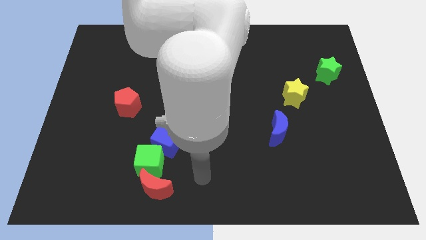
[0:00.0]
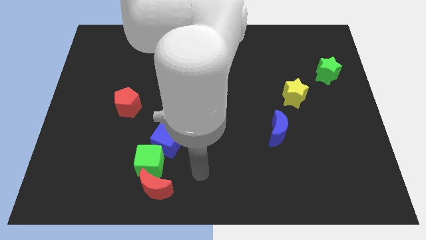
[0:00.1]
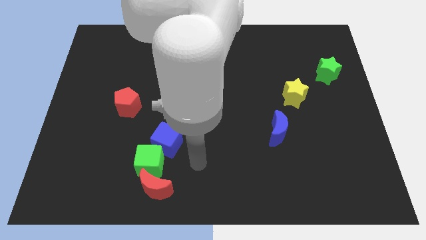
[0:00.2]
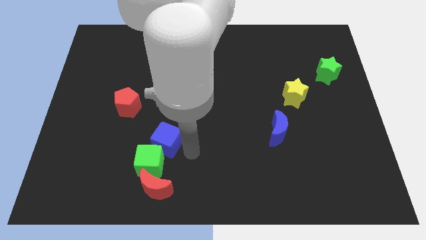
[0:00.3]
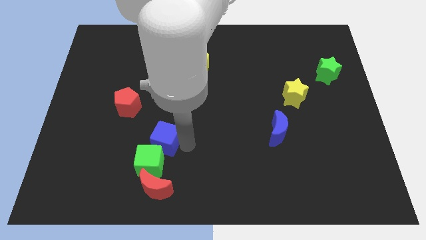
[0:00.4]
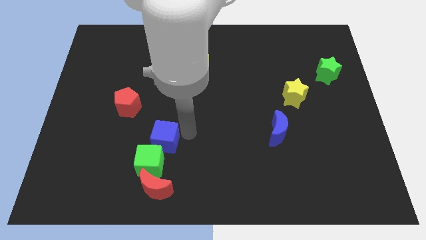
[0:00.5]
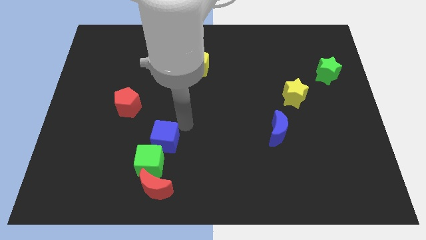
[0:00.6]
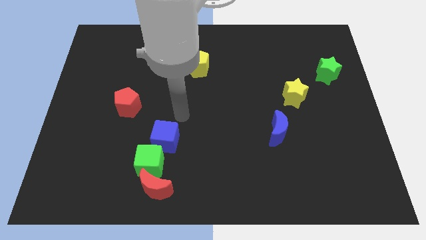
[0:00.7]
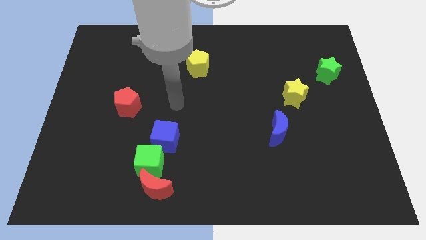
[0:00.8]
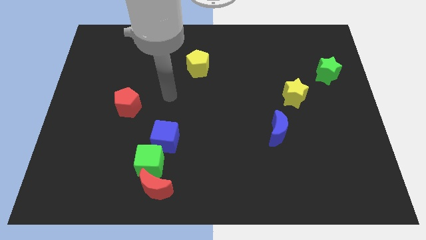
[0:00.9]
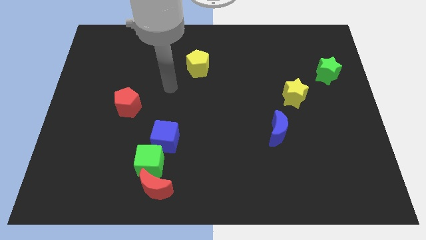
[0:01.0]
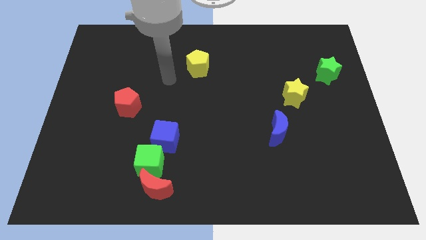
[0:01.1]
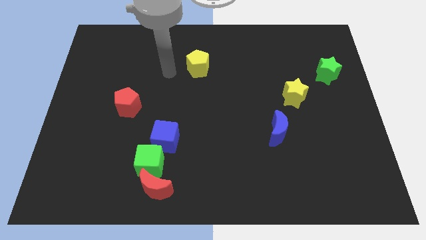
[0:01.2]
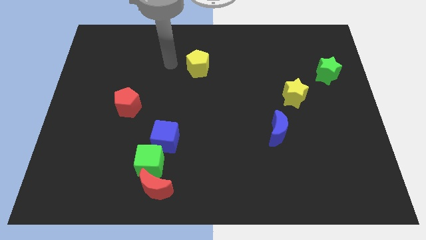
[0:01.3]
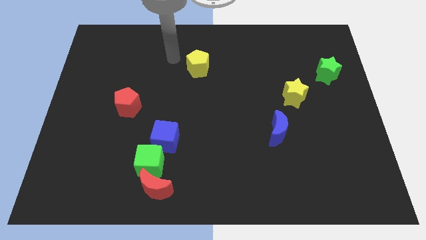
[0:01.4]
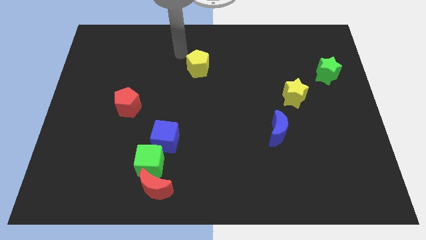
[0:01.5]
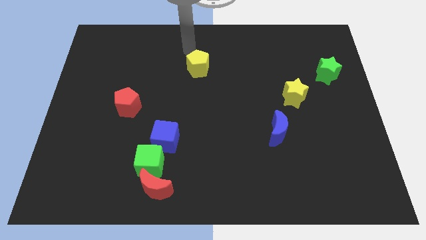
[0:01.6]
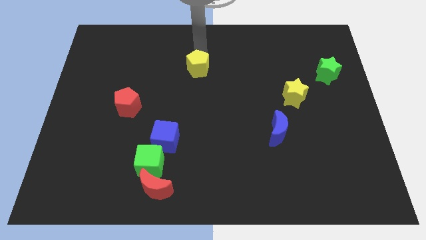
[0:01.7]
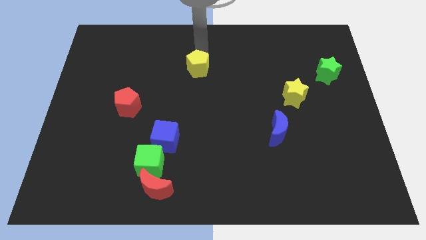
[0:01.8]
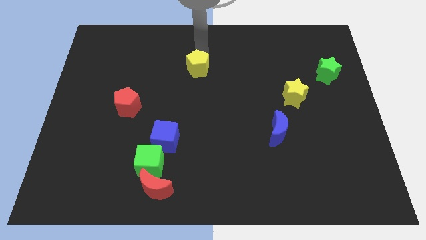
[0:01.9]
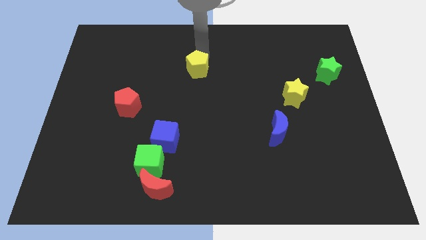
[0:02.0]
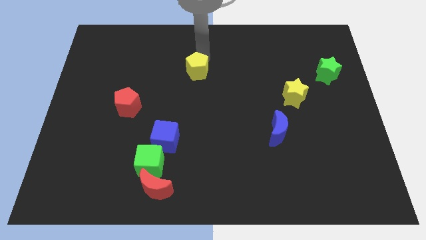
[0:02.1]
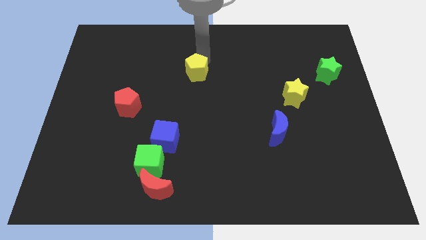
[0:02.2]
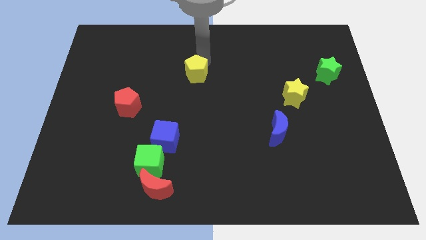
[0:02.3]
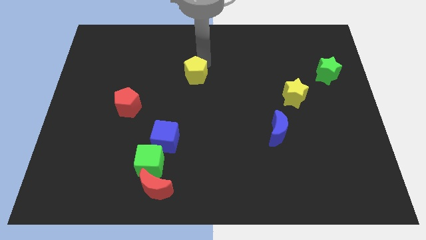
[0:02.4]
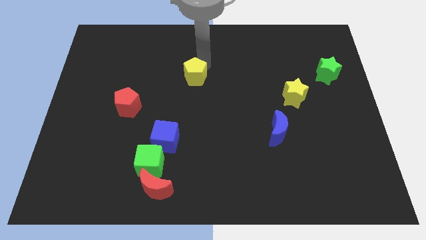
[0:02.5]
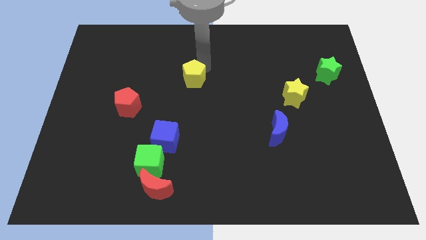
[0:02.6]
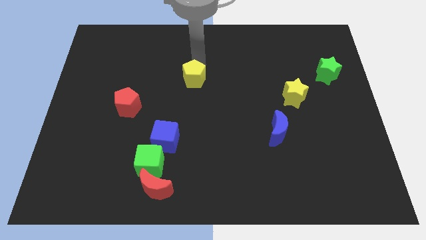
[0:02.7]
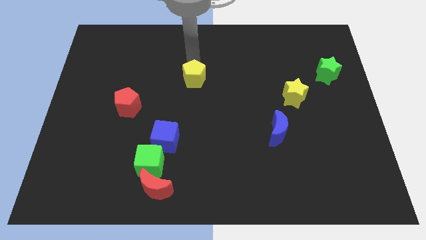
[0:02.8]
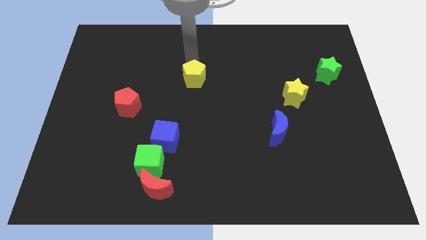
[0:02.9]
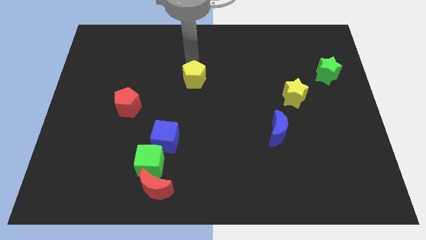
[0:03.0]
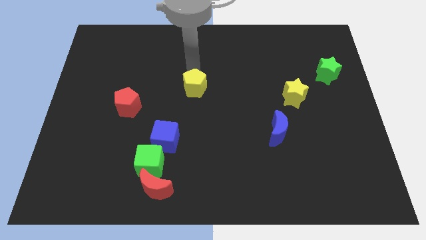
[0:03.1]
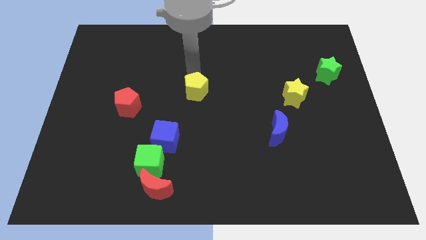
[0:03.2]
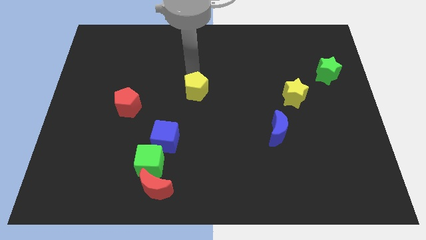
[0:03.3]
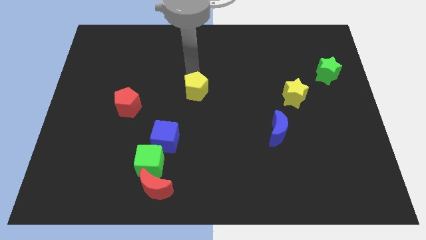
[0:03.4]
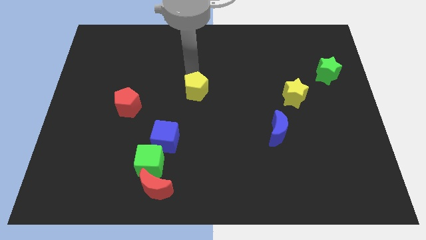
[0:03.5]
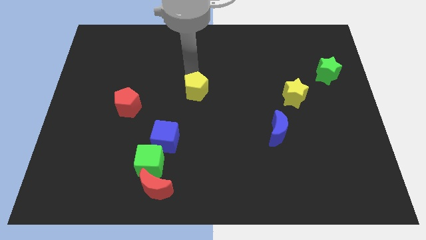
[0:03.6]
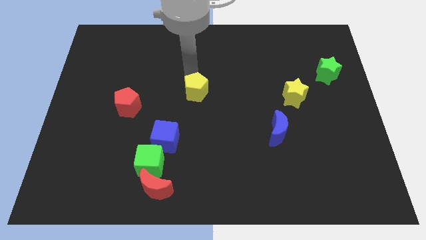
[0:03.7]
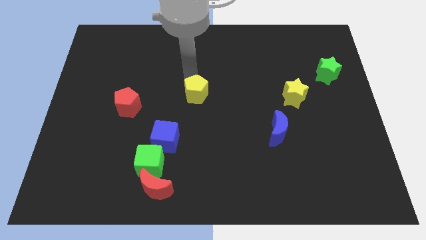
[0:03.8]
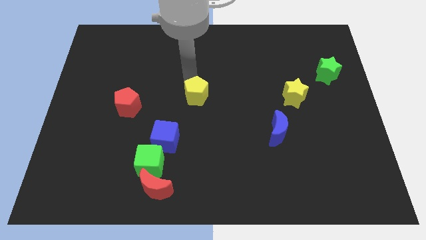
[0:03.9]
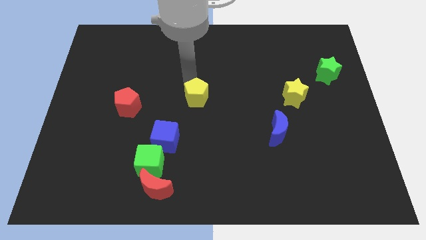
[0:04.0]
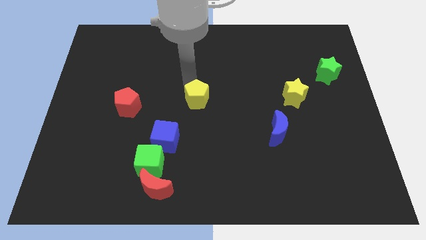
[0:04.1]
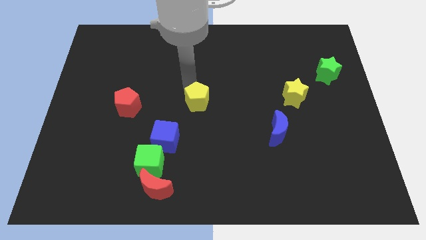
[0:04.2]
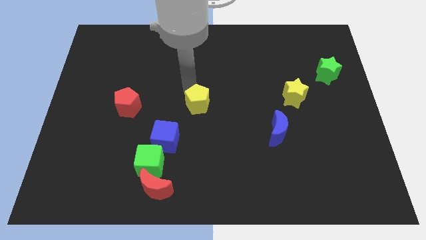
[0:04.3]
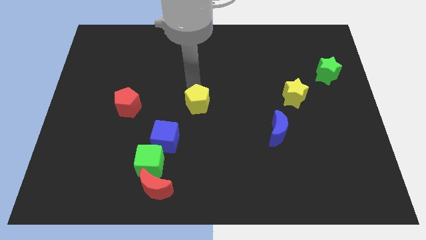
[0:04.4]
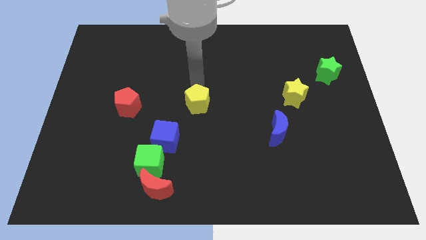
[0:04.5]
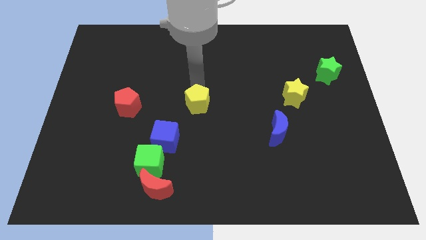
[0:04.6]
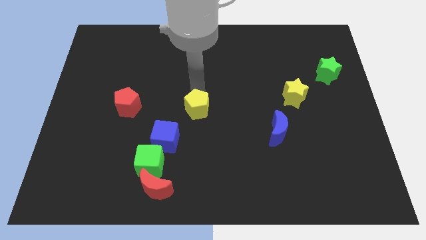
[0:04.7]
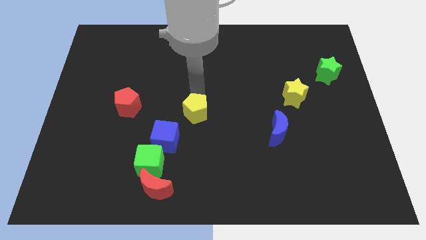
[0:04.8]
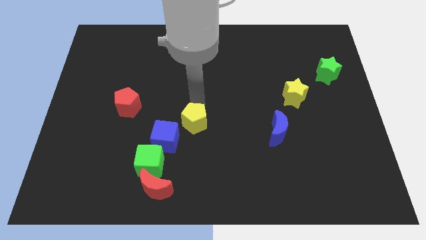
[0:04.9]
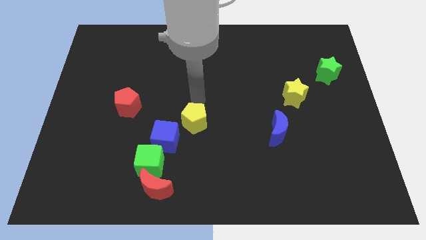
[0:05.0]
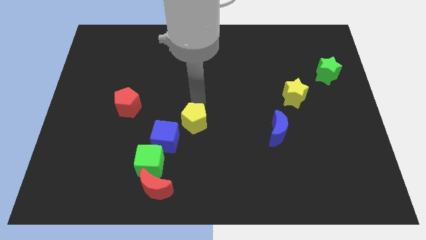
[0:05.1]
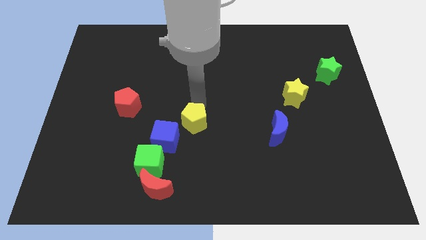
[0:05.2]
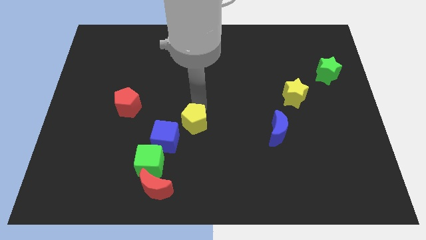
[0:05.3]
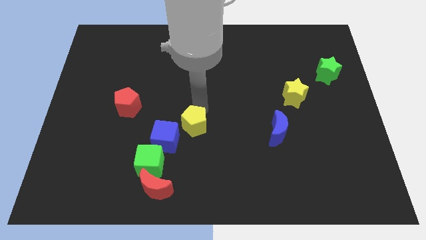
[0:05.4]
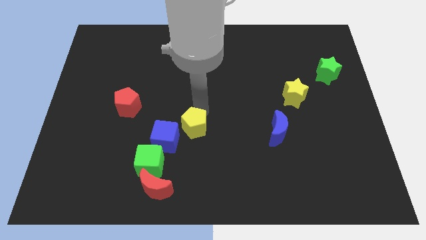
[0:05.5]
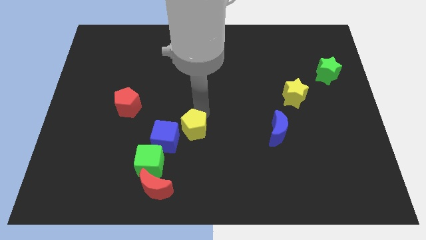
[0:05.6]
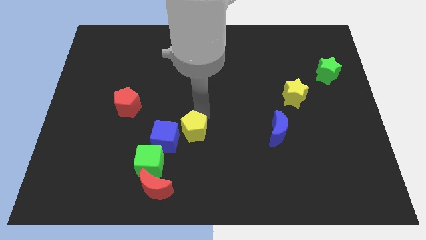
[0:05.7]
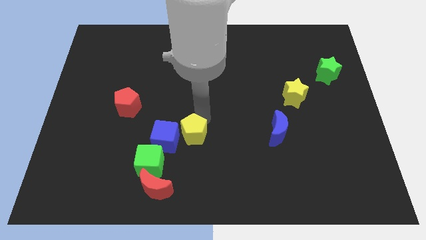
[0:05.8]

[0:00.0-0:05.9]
slide the yellow pentagon downwards

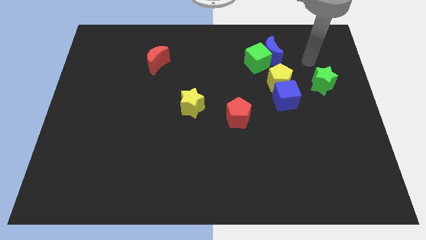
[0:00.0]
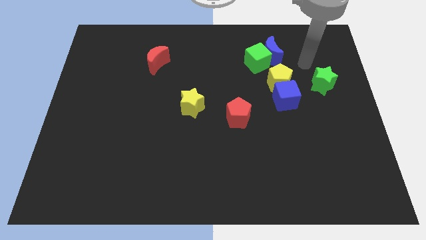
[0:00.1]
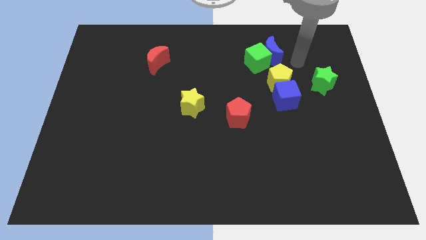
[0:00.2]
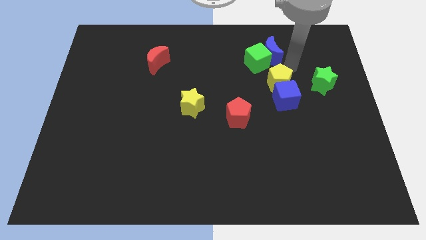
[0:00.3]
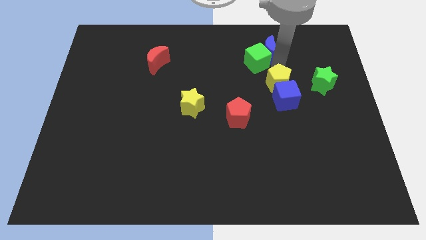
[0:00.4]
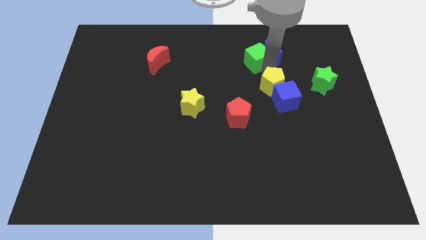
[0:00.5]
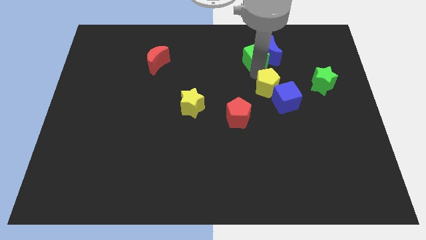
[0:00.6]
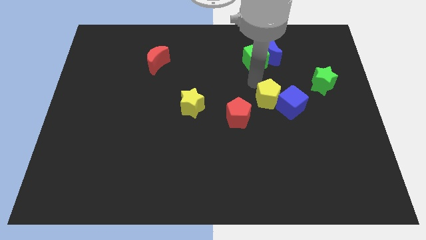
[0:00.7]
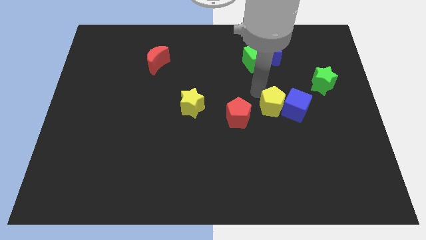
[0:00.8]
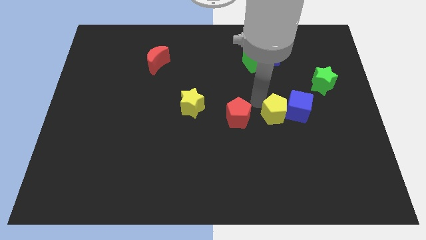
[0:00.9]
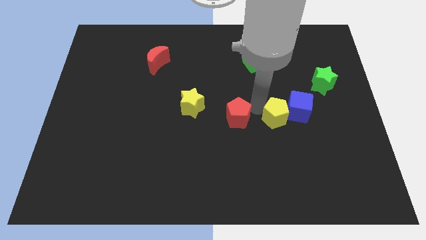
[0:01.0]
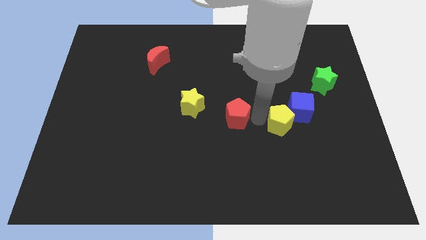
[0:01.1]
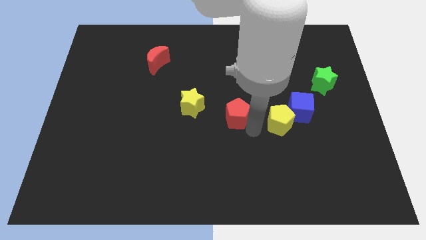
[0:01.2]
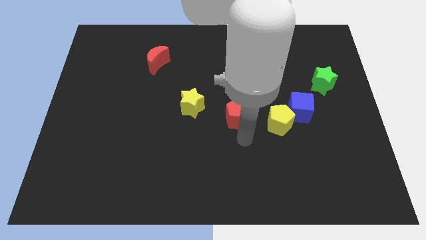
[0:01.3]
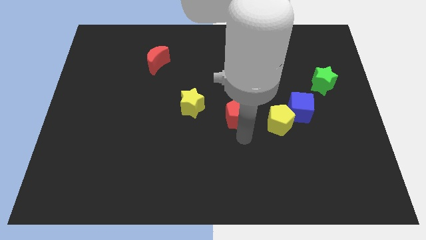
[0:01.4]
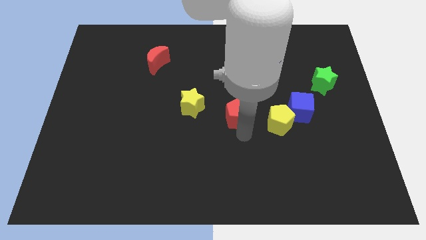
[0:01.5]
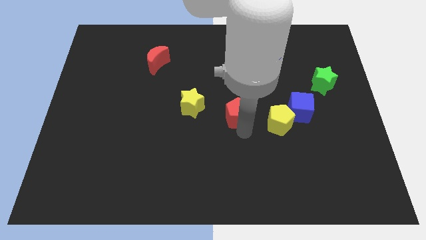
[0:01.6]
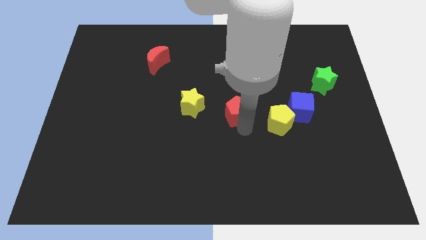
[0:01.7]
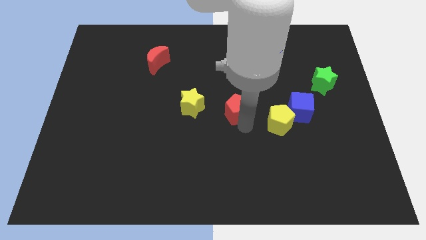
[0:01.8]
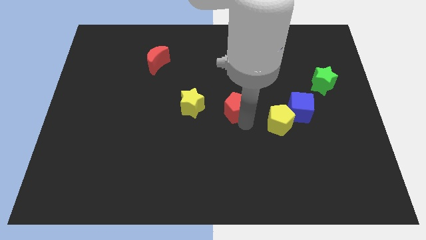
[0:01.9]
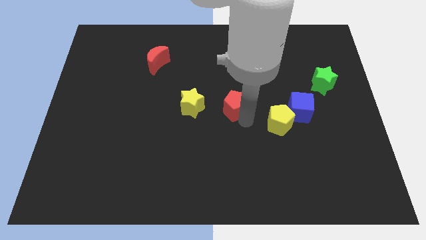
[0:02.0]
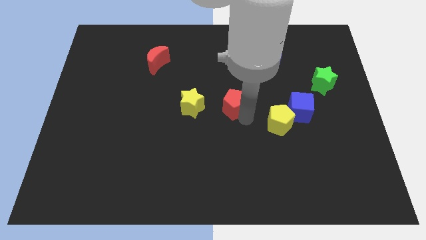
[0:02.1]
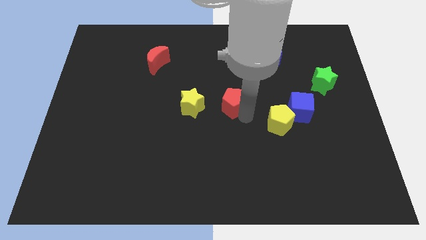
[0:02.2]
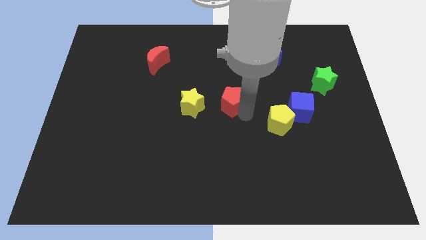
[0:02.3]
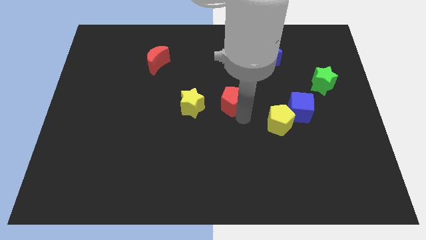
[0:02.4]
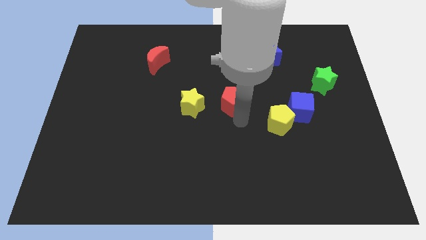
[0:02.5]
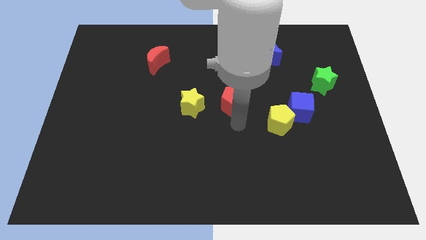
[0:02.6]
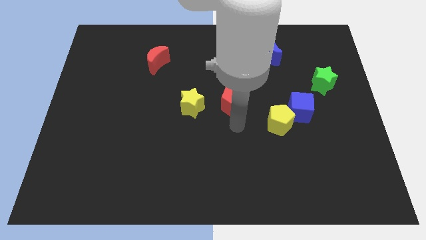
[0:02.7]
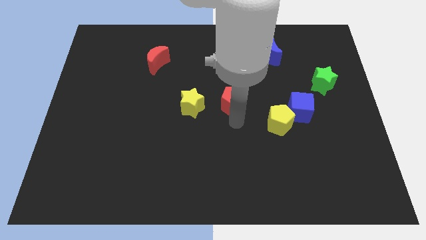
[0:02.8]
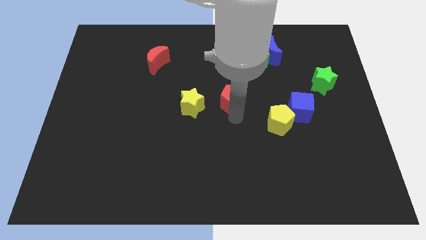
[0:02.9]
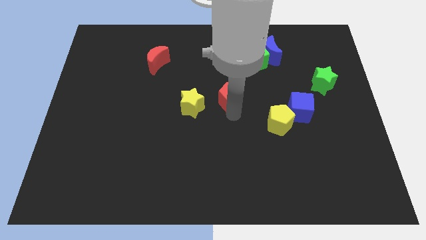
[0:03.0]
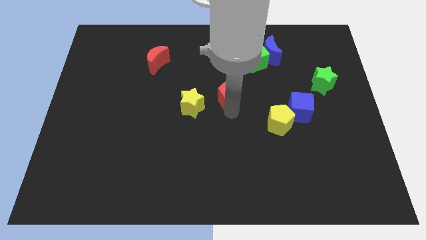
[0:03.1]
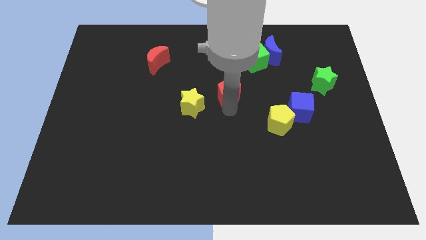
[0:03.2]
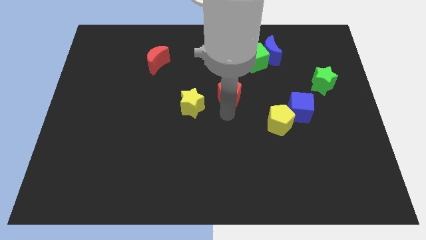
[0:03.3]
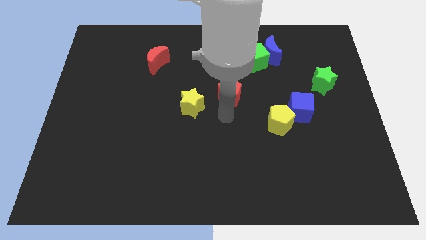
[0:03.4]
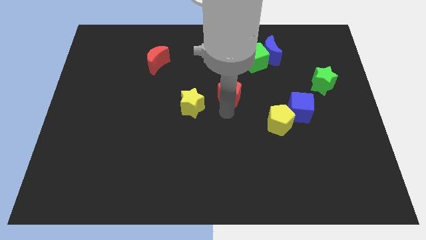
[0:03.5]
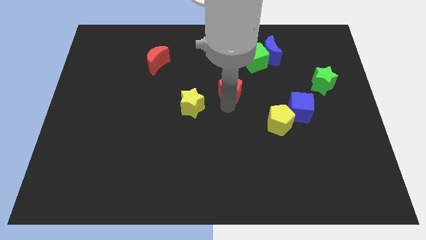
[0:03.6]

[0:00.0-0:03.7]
slide the red pentagon a little up
